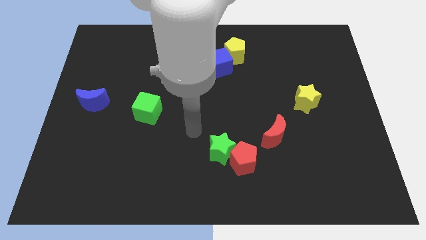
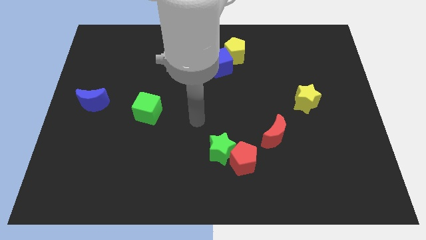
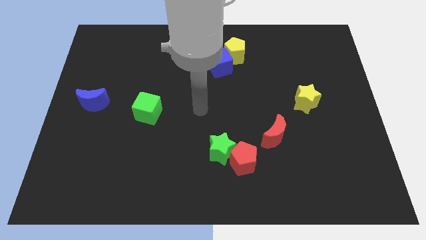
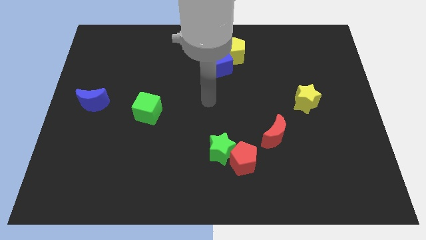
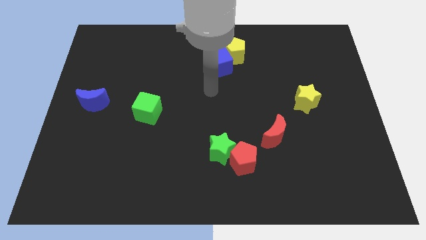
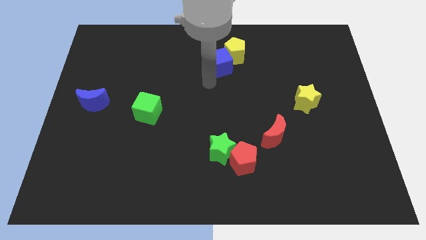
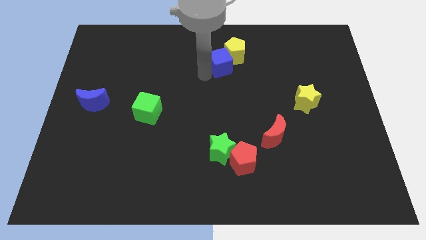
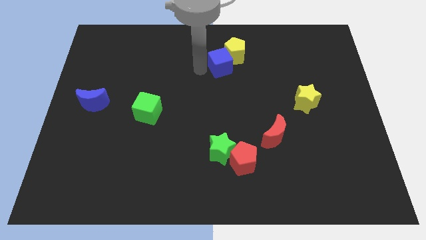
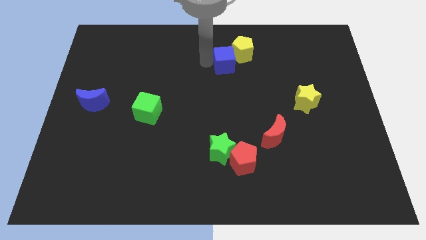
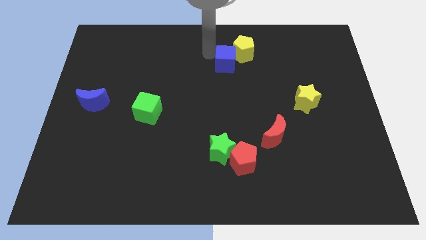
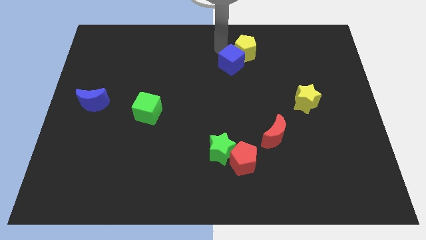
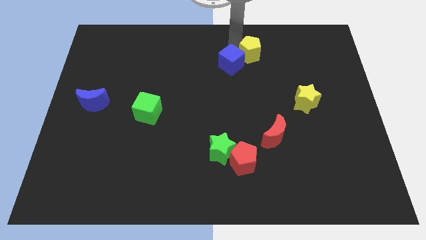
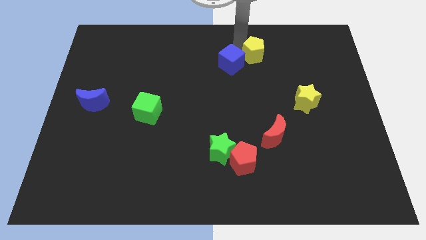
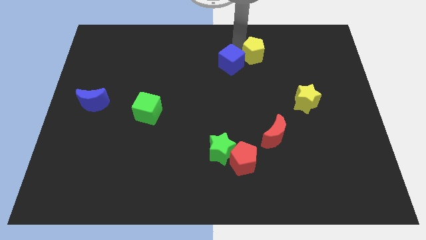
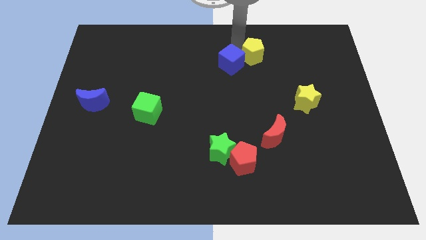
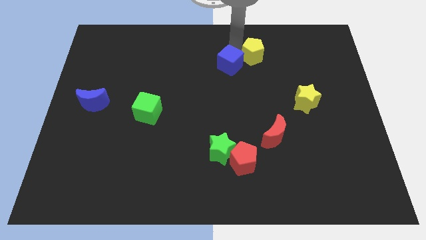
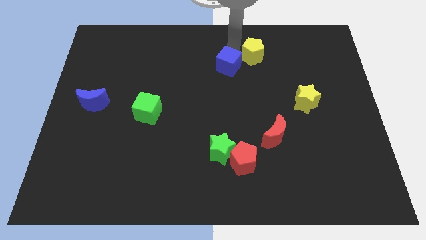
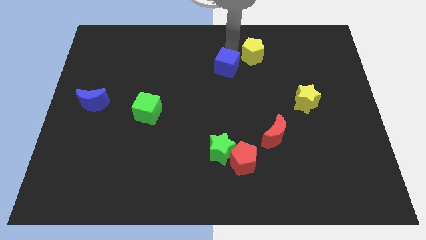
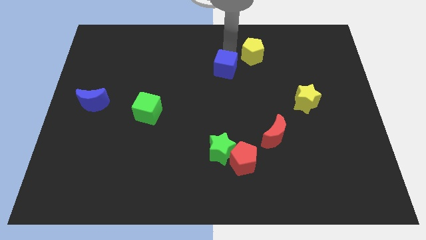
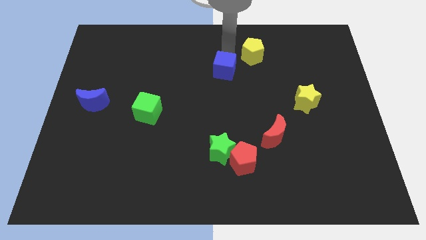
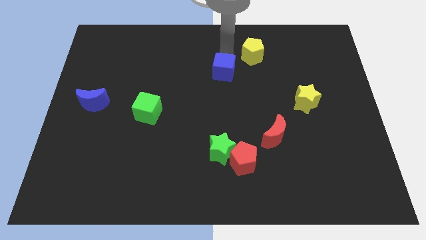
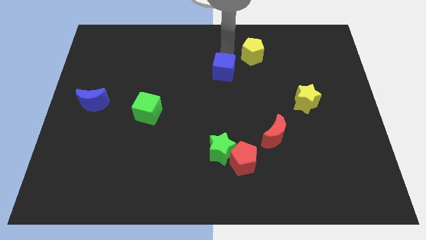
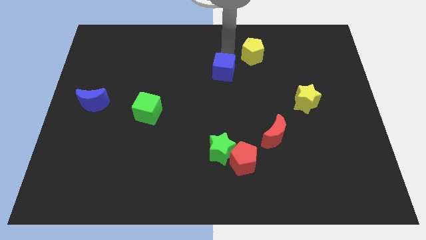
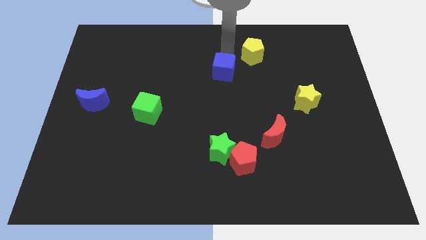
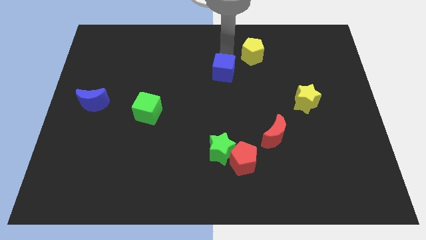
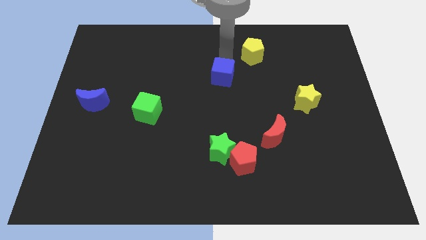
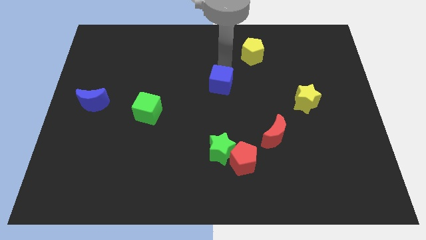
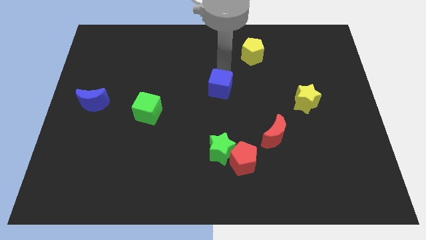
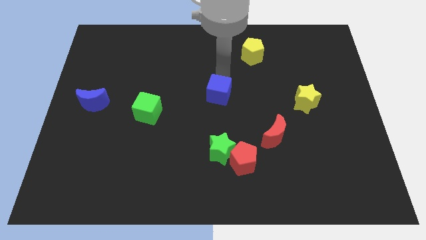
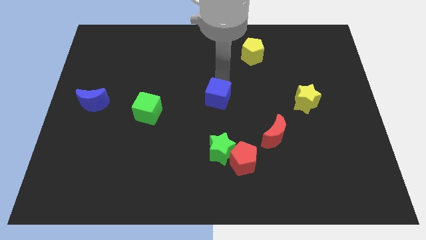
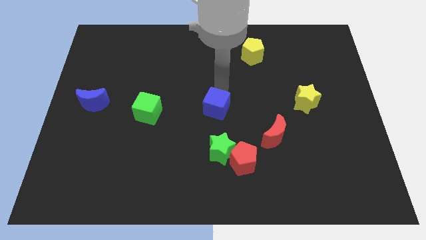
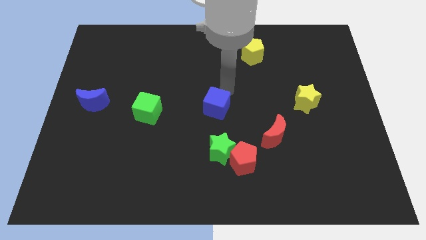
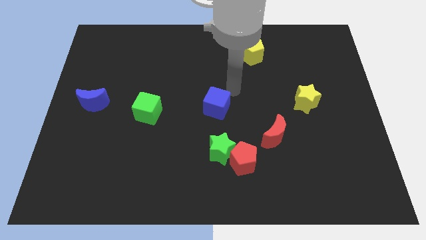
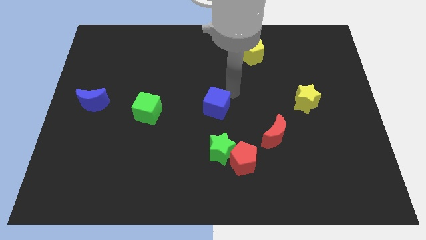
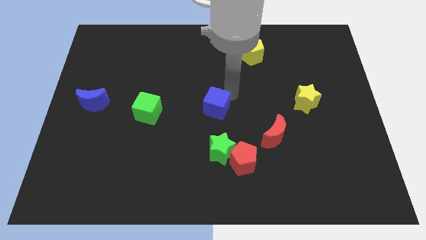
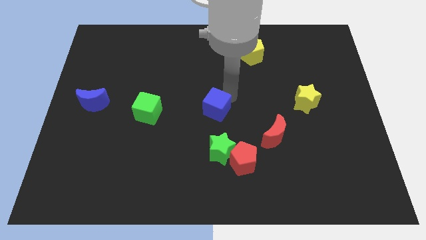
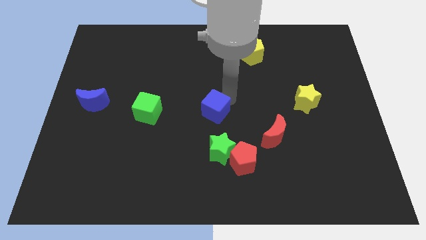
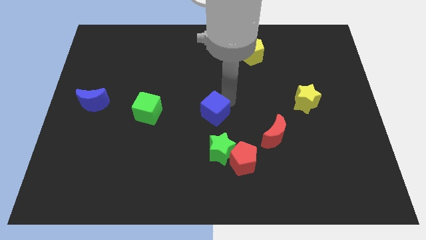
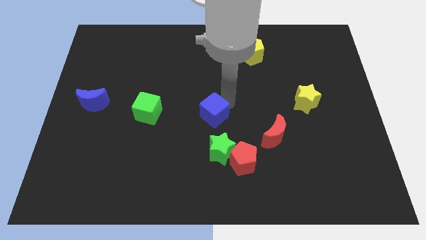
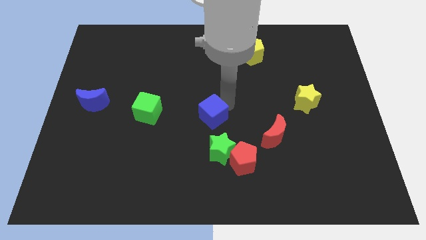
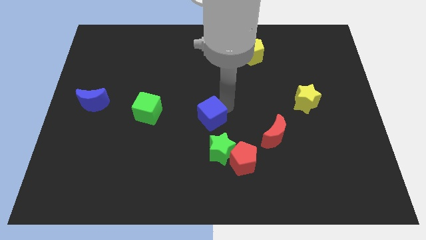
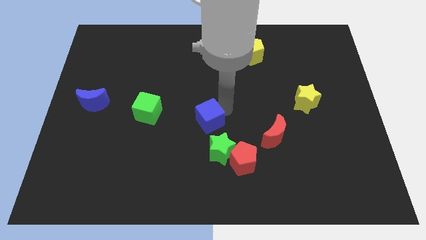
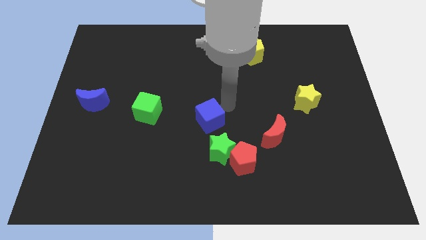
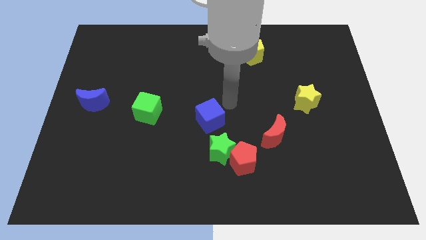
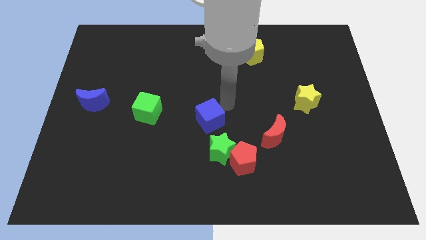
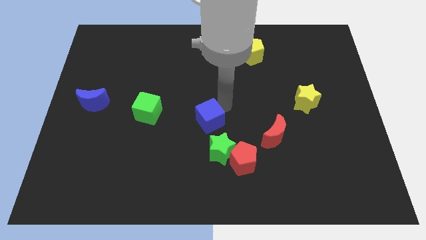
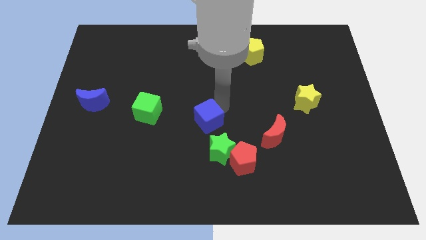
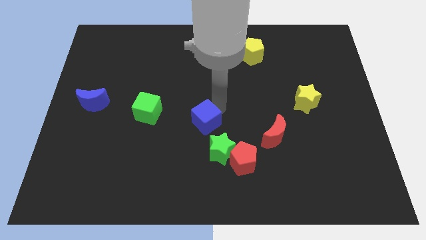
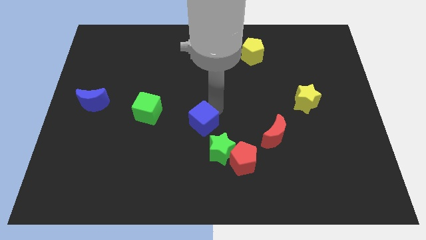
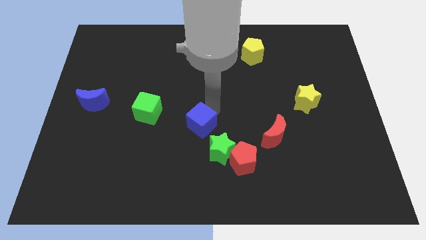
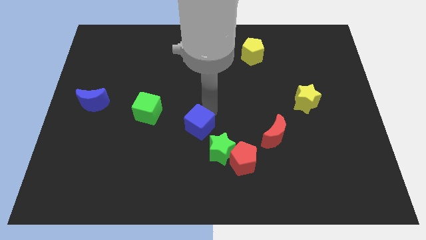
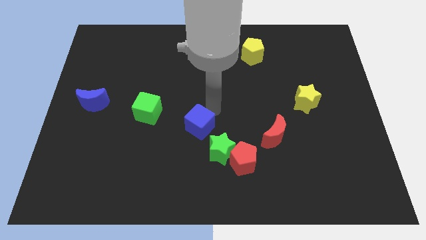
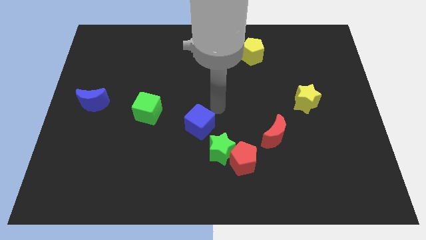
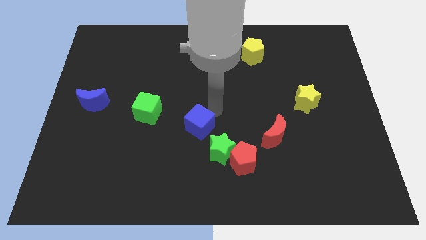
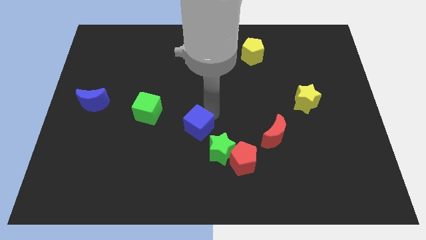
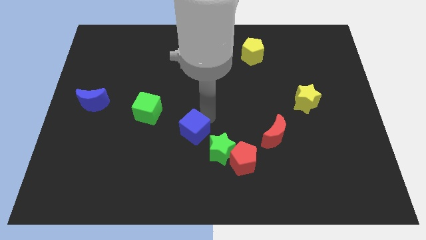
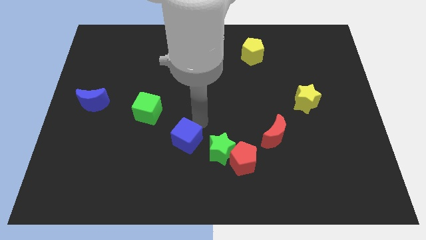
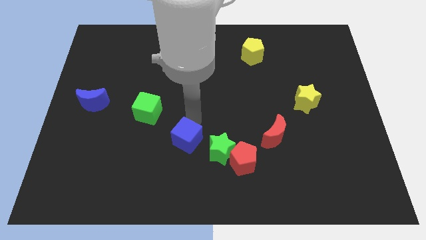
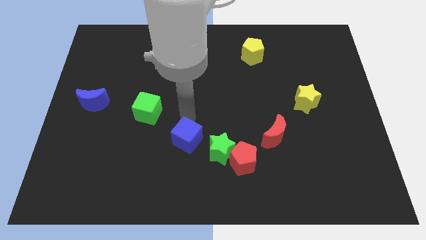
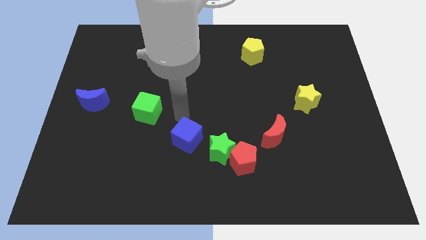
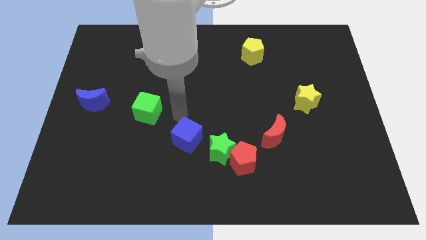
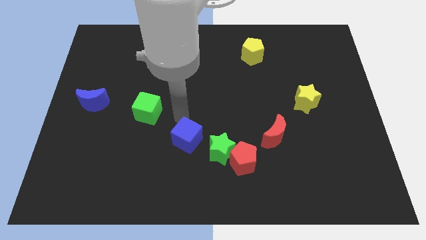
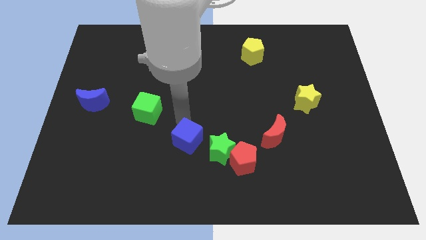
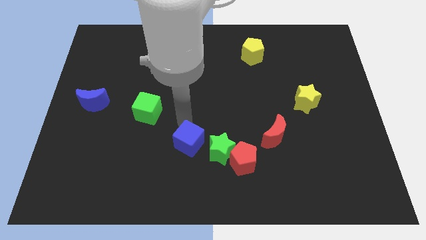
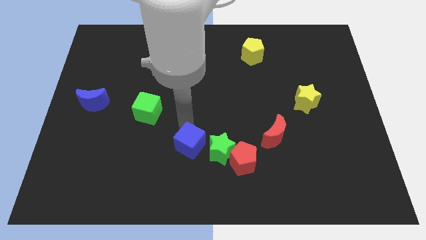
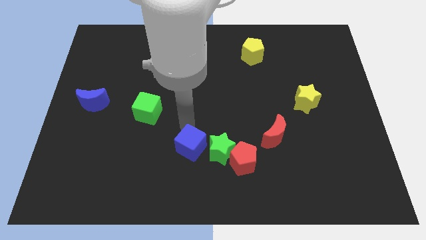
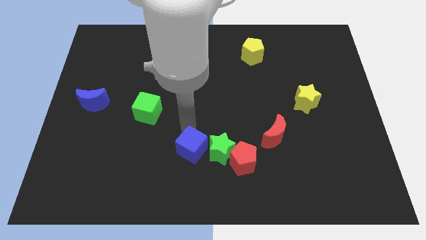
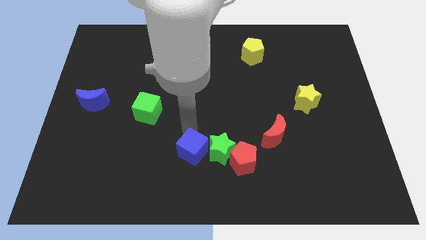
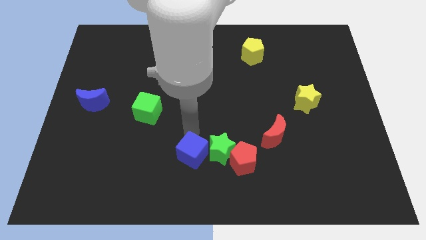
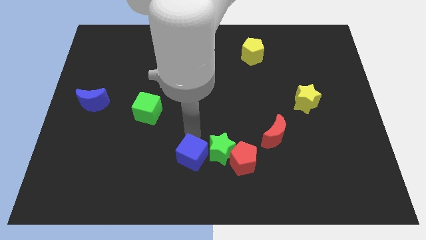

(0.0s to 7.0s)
push the blue cube to the bottom side
